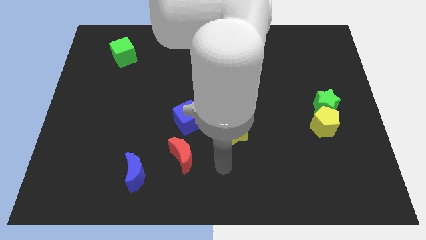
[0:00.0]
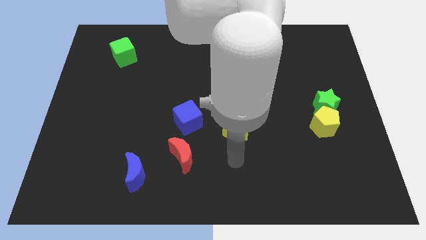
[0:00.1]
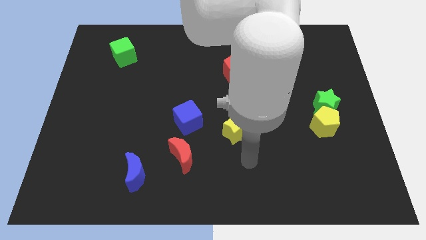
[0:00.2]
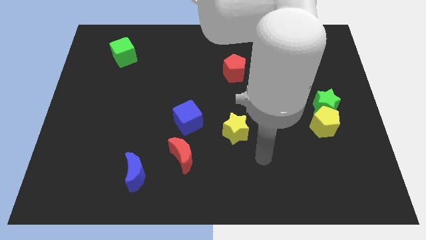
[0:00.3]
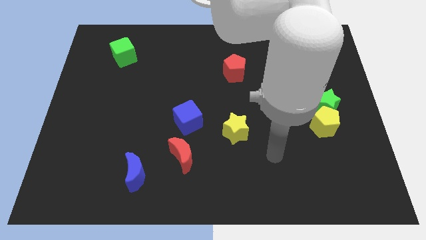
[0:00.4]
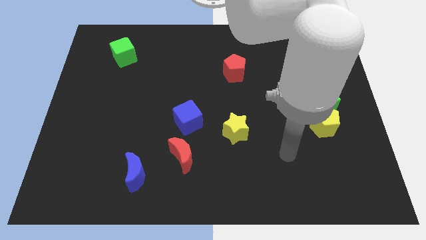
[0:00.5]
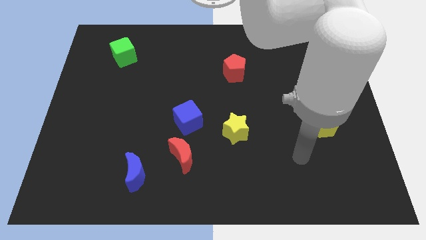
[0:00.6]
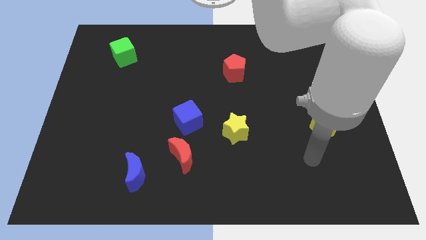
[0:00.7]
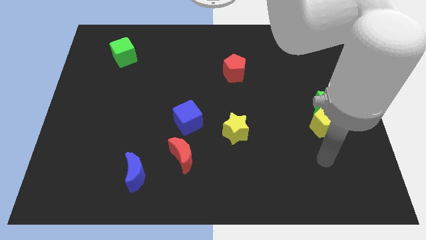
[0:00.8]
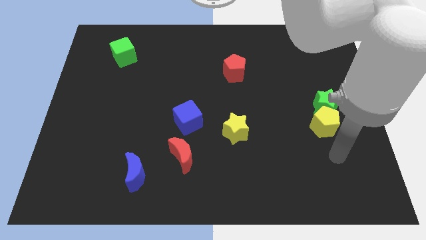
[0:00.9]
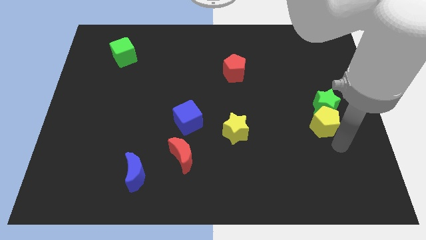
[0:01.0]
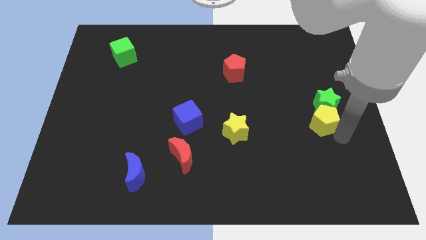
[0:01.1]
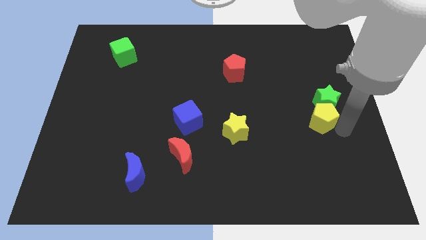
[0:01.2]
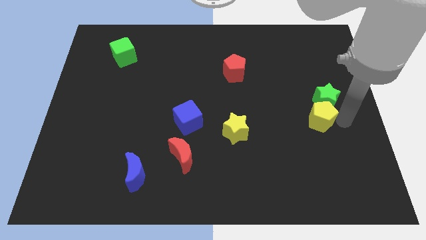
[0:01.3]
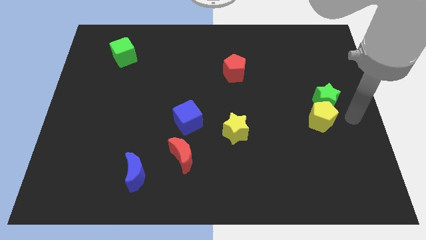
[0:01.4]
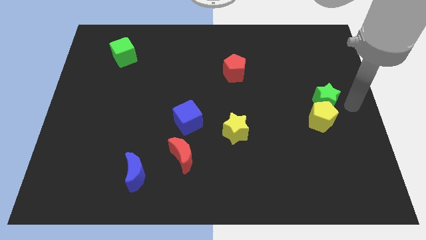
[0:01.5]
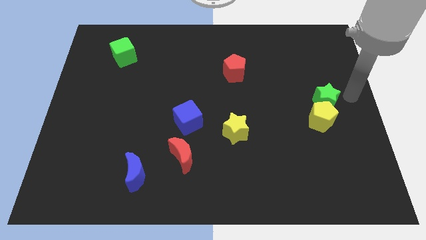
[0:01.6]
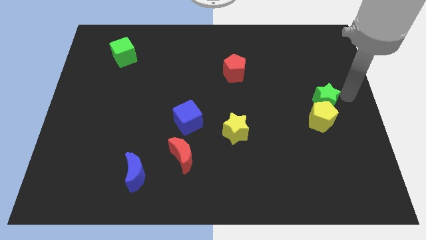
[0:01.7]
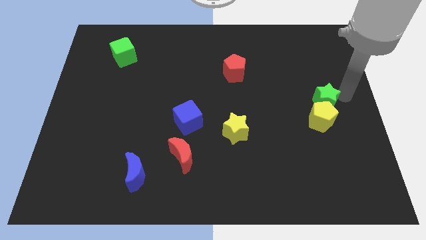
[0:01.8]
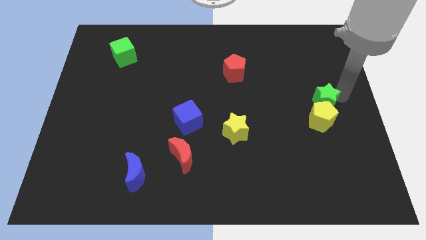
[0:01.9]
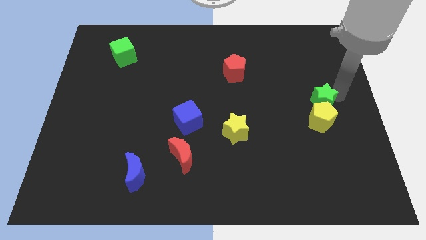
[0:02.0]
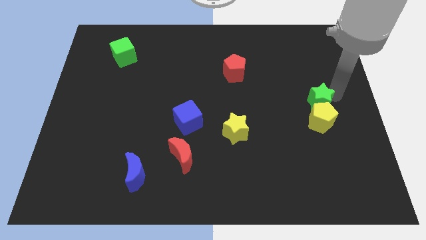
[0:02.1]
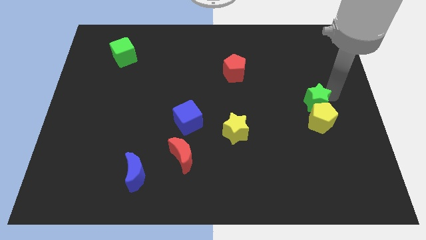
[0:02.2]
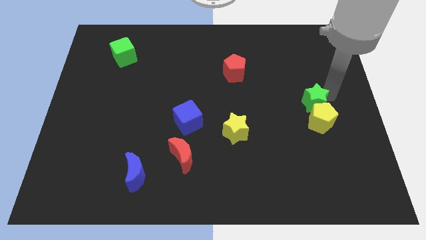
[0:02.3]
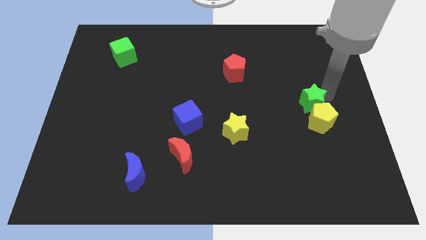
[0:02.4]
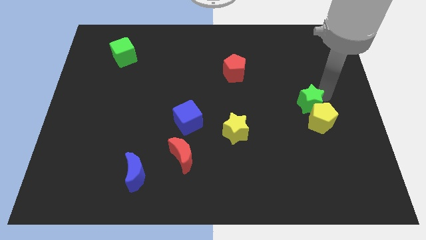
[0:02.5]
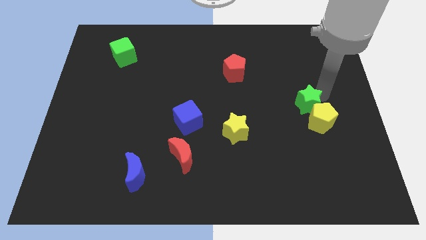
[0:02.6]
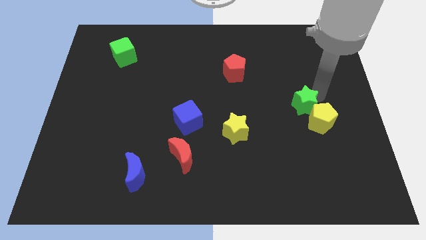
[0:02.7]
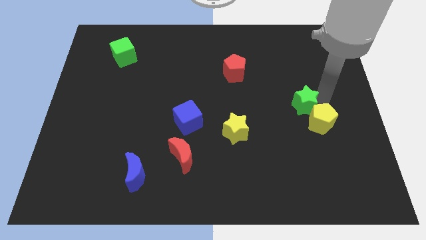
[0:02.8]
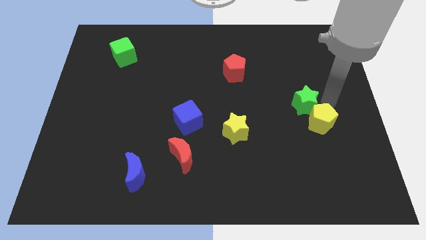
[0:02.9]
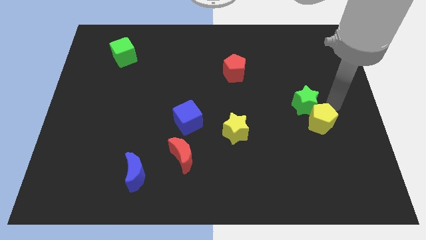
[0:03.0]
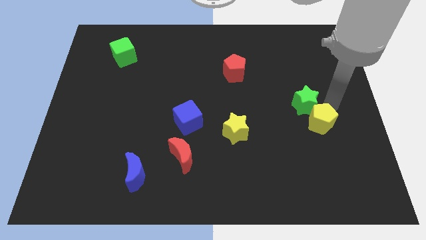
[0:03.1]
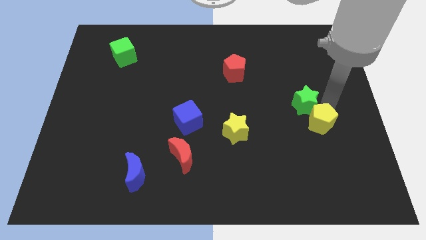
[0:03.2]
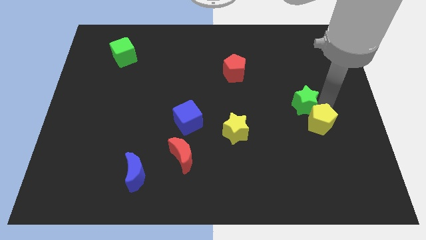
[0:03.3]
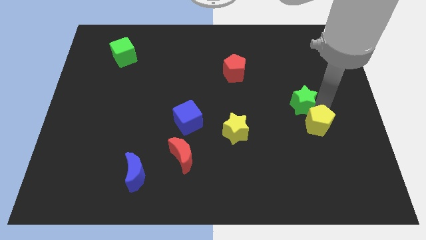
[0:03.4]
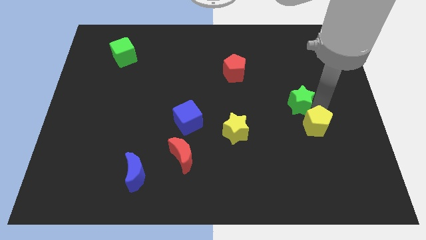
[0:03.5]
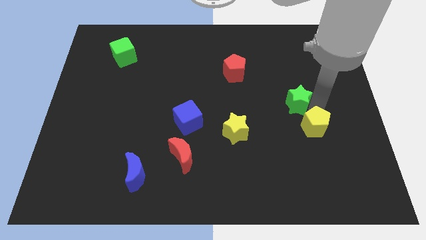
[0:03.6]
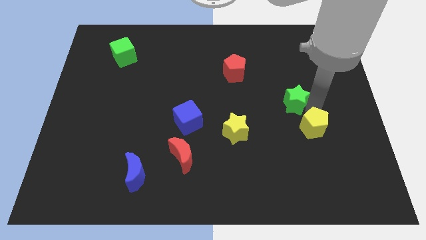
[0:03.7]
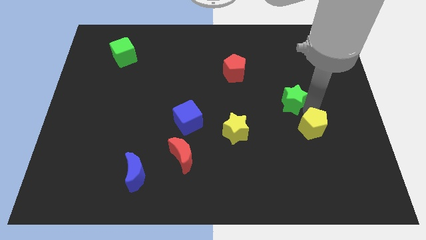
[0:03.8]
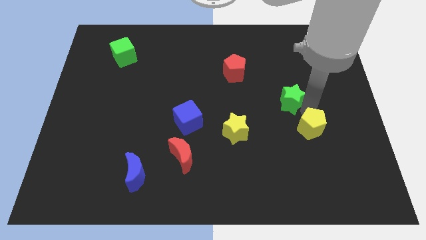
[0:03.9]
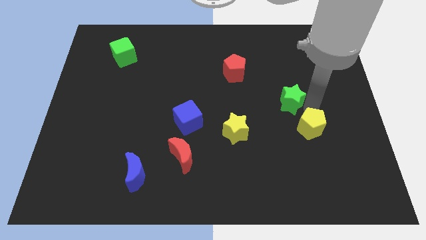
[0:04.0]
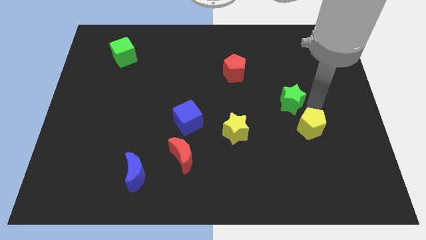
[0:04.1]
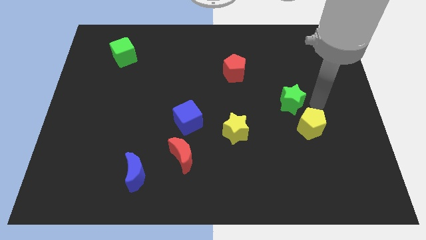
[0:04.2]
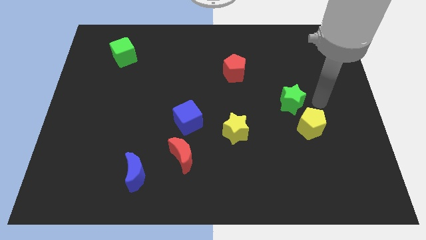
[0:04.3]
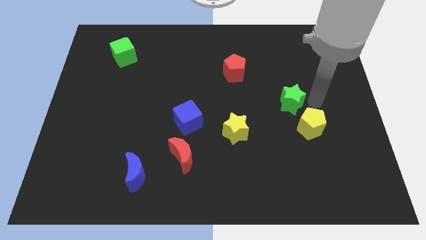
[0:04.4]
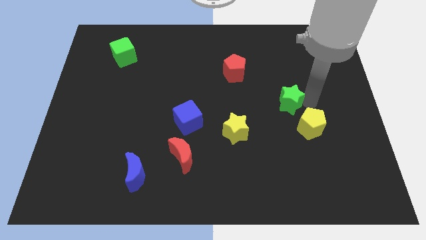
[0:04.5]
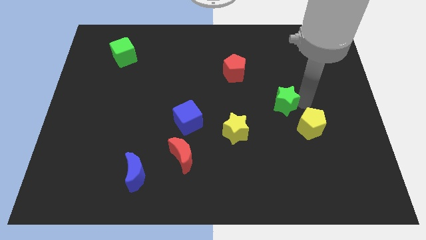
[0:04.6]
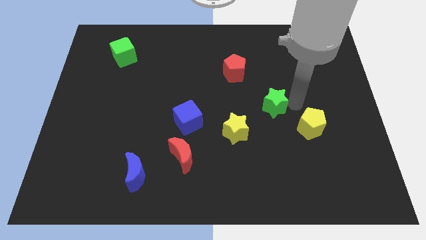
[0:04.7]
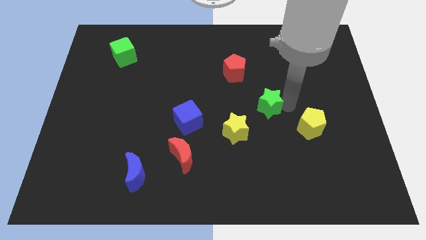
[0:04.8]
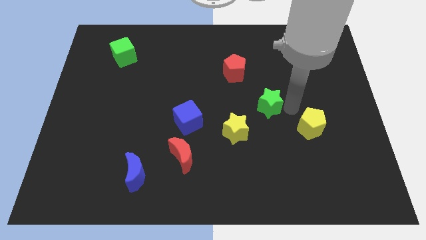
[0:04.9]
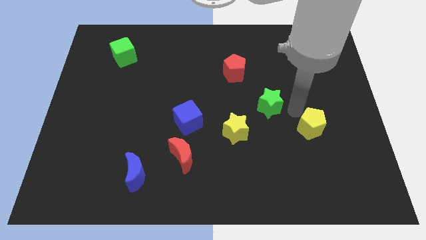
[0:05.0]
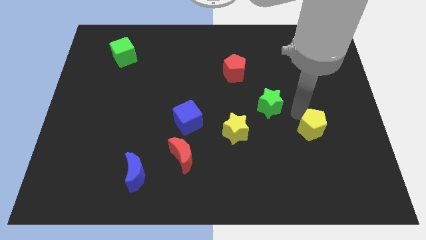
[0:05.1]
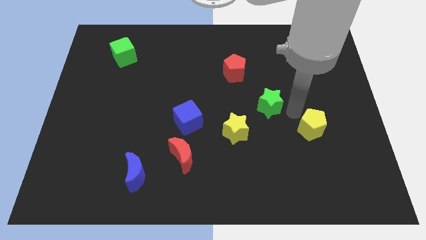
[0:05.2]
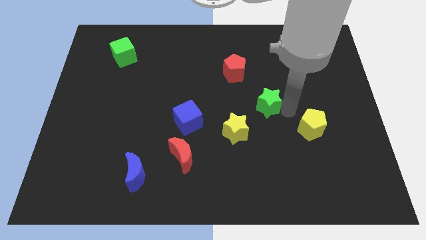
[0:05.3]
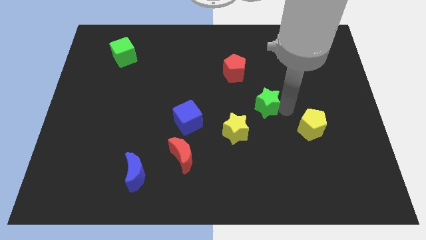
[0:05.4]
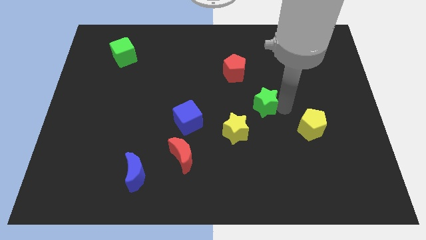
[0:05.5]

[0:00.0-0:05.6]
slide the green star to the center of the board

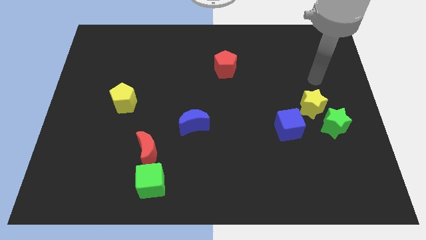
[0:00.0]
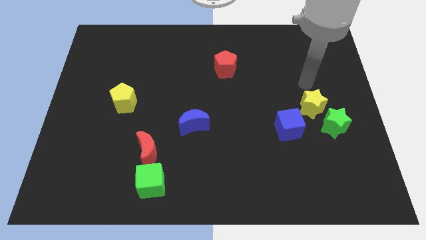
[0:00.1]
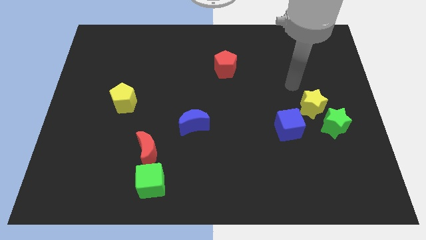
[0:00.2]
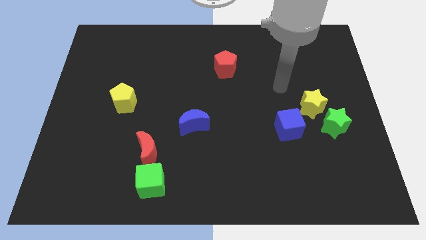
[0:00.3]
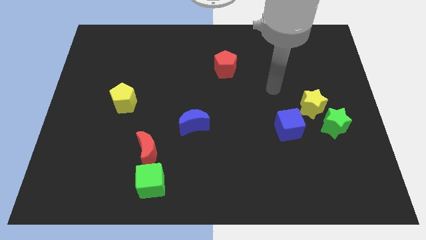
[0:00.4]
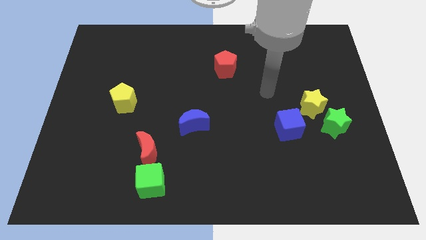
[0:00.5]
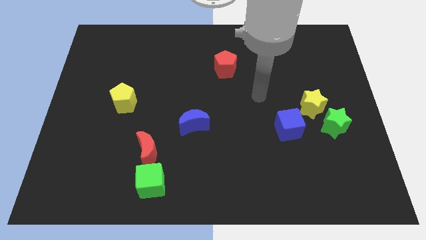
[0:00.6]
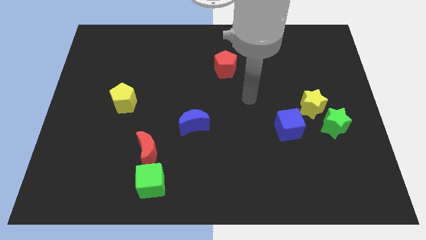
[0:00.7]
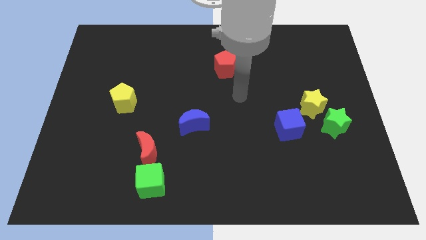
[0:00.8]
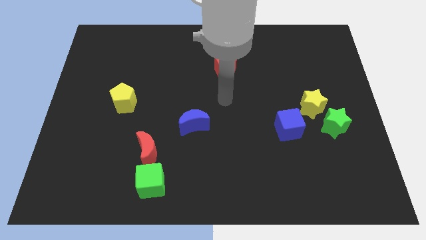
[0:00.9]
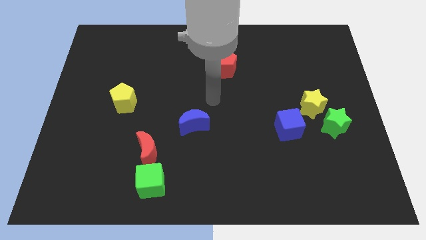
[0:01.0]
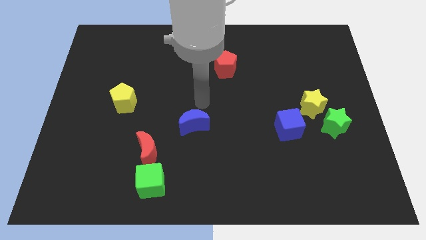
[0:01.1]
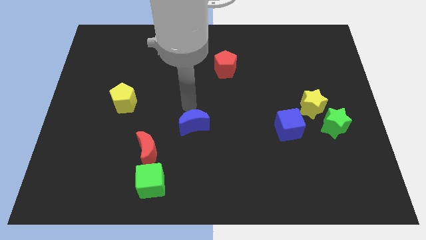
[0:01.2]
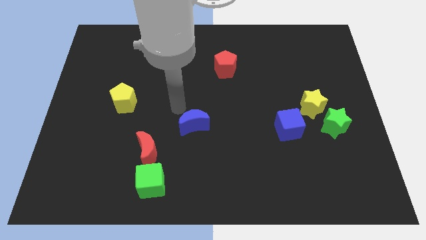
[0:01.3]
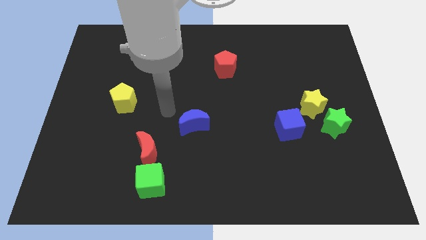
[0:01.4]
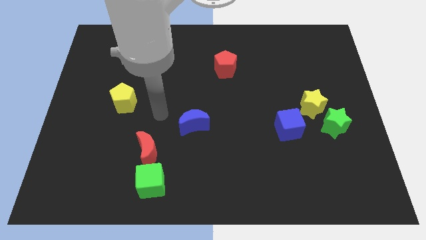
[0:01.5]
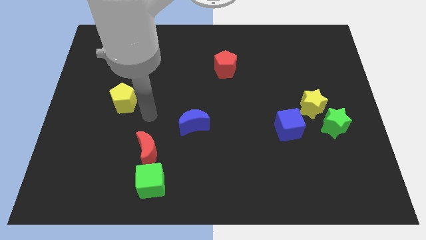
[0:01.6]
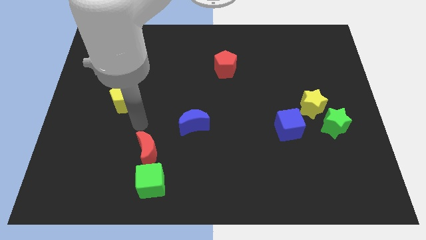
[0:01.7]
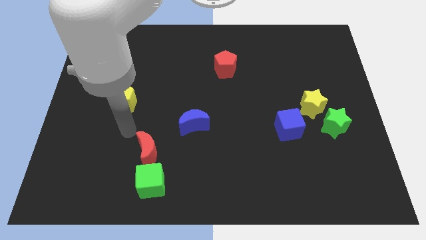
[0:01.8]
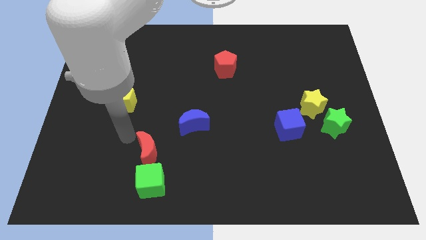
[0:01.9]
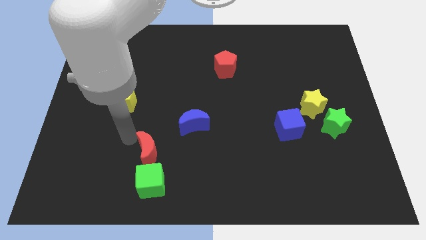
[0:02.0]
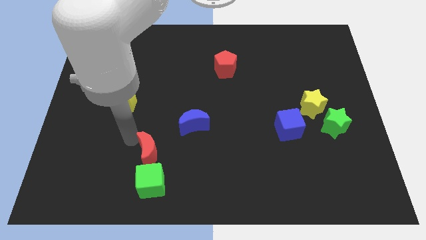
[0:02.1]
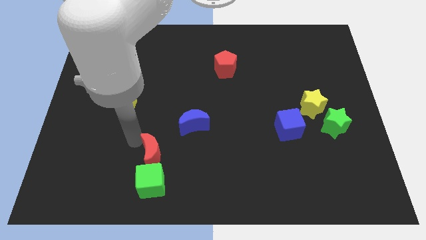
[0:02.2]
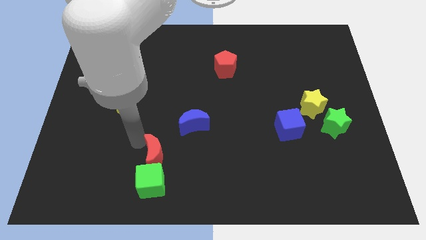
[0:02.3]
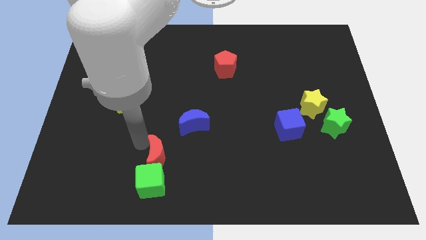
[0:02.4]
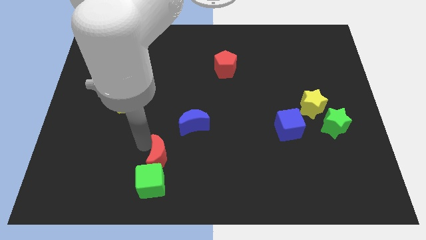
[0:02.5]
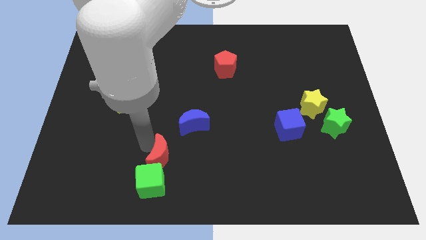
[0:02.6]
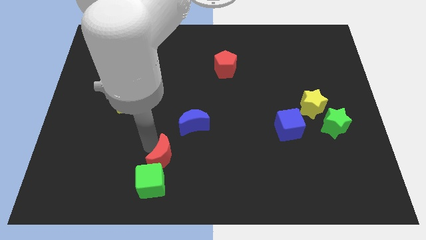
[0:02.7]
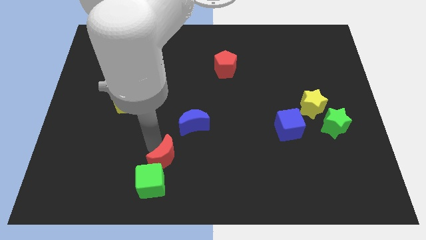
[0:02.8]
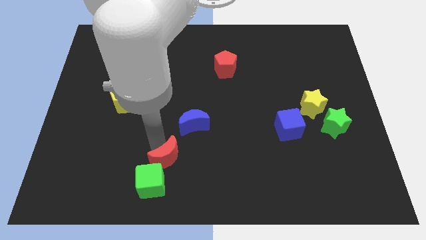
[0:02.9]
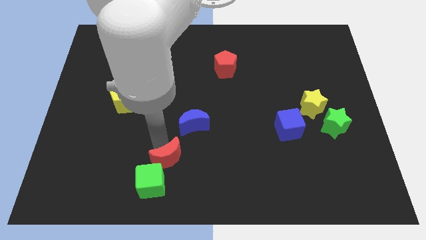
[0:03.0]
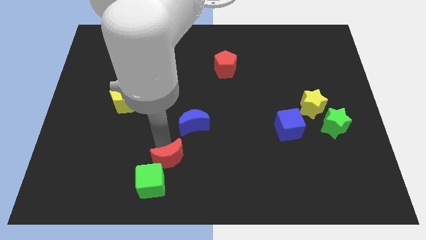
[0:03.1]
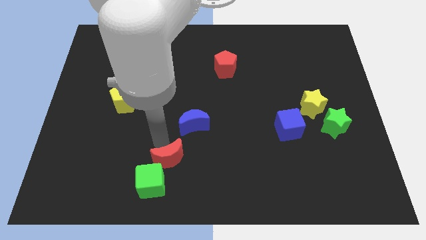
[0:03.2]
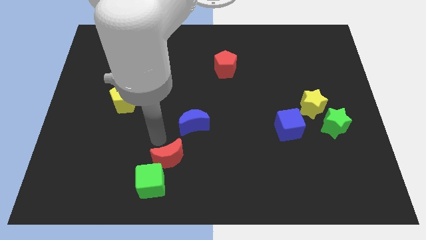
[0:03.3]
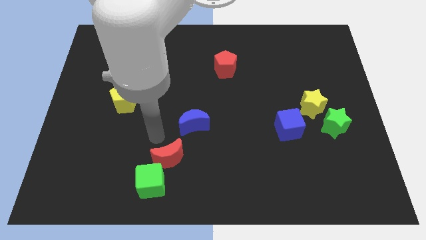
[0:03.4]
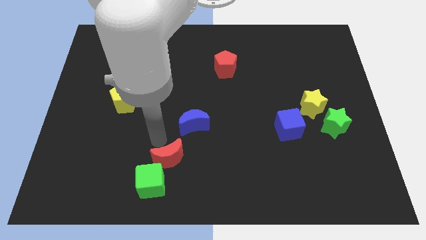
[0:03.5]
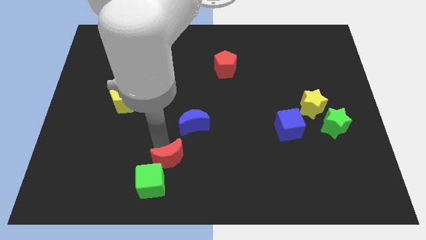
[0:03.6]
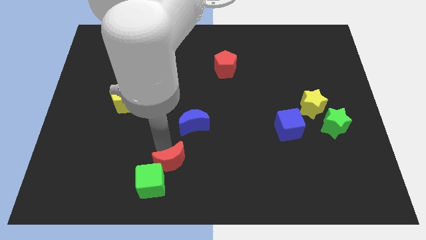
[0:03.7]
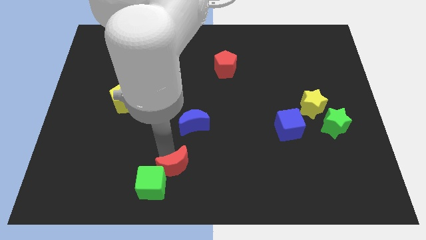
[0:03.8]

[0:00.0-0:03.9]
move the red moon to the bottom
